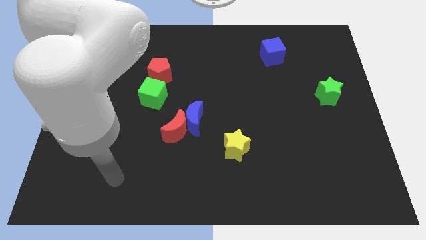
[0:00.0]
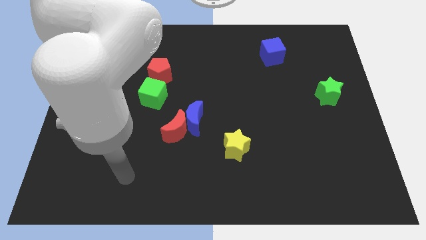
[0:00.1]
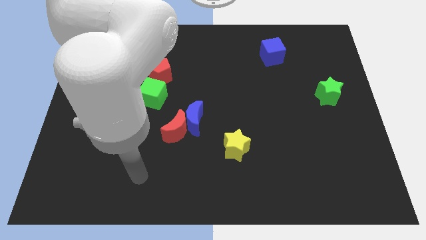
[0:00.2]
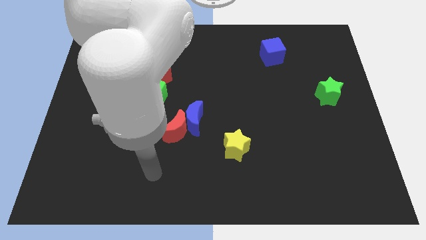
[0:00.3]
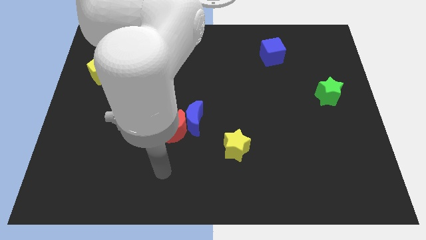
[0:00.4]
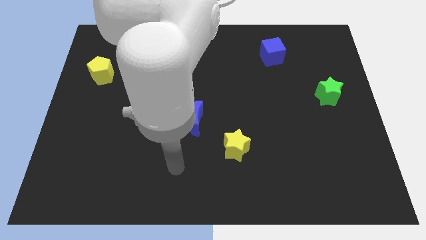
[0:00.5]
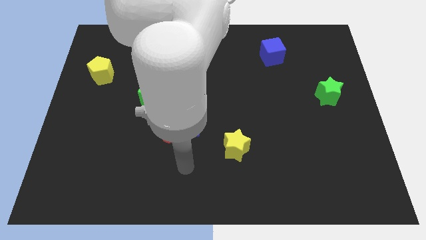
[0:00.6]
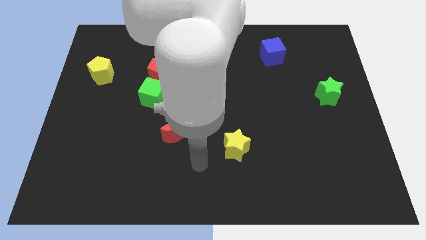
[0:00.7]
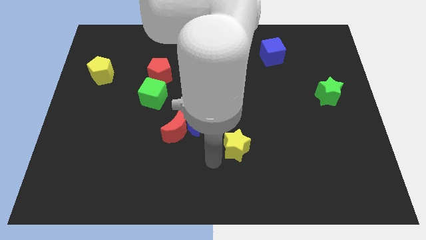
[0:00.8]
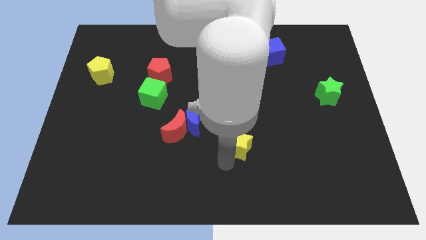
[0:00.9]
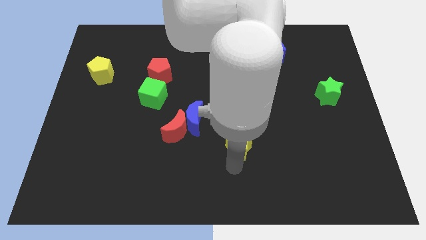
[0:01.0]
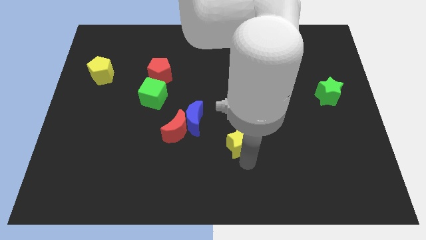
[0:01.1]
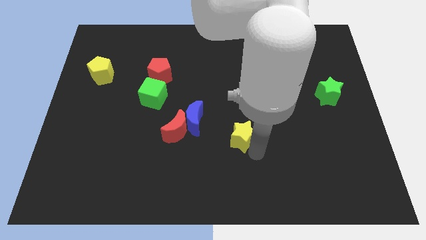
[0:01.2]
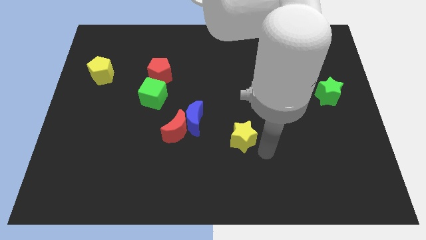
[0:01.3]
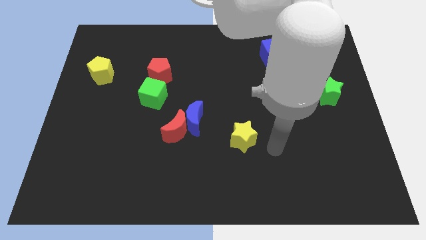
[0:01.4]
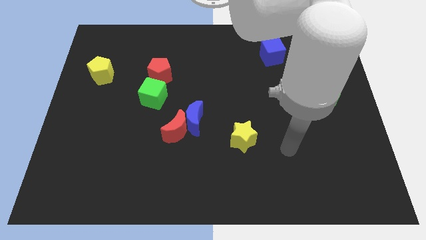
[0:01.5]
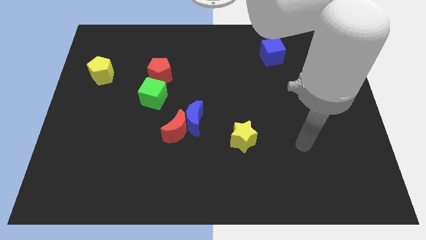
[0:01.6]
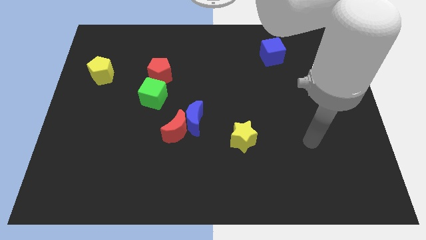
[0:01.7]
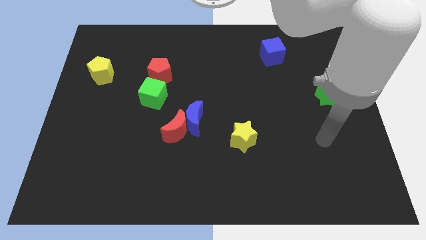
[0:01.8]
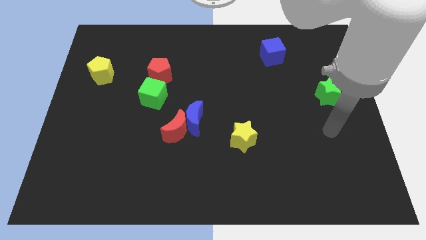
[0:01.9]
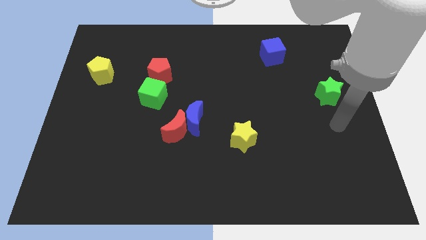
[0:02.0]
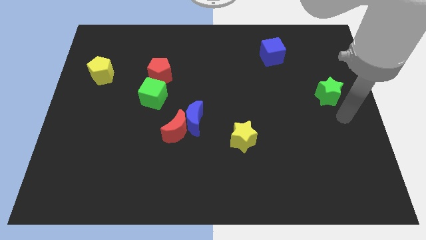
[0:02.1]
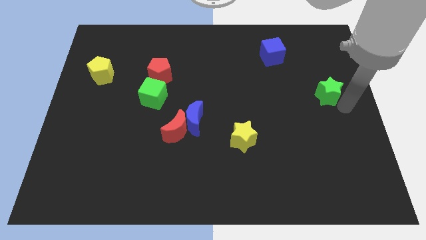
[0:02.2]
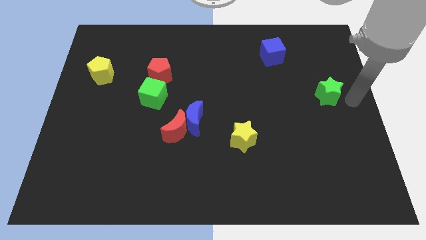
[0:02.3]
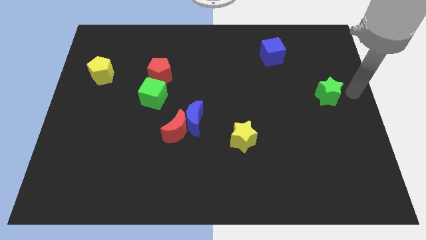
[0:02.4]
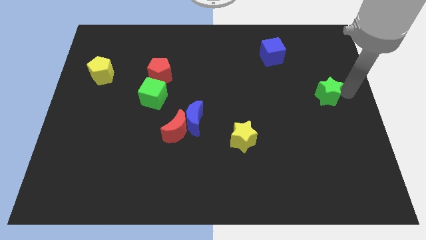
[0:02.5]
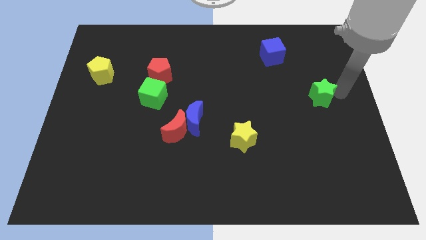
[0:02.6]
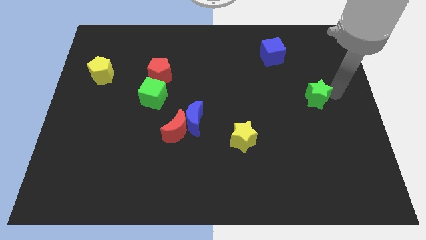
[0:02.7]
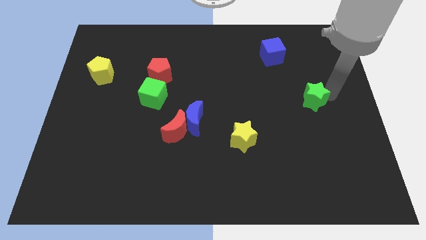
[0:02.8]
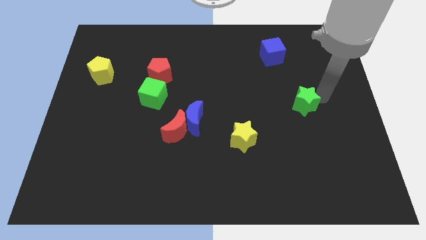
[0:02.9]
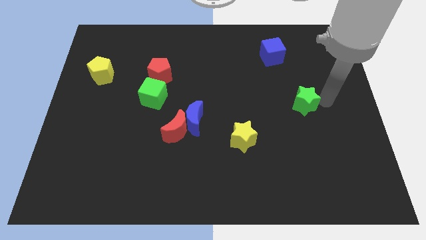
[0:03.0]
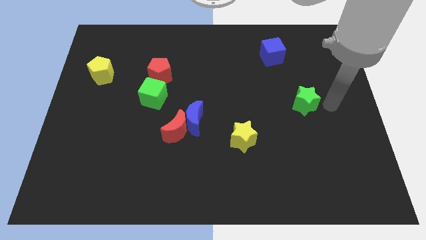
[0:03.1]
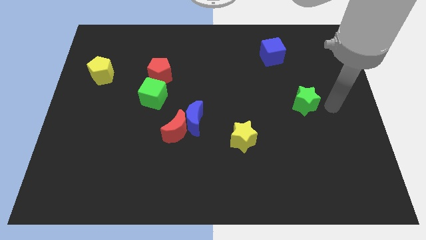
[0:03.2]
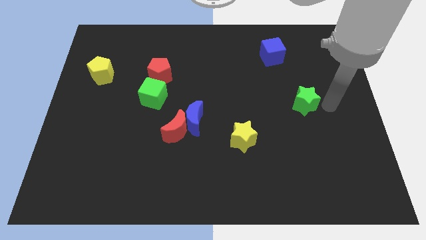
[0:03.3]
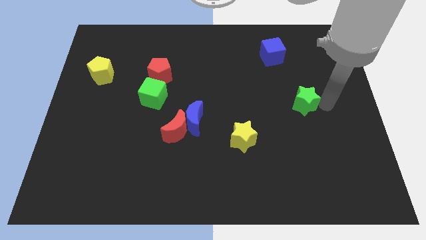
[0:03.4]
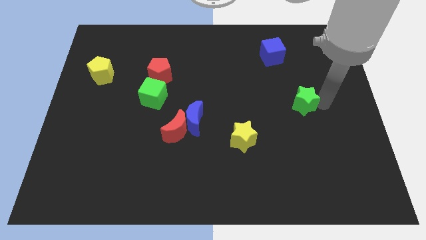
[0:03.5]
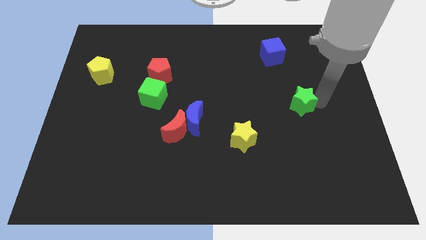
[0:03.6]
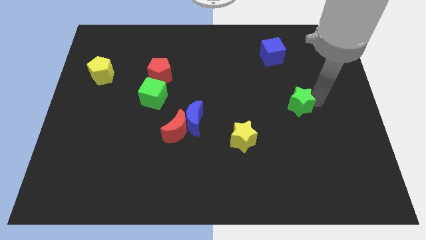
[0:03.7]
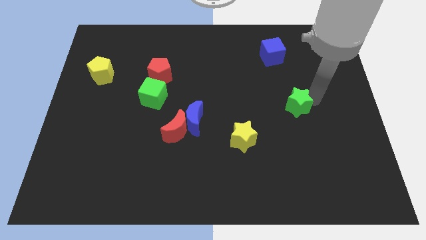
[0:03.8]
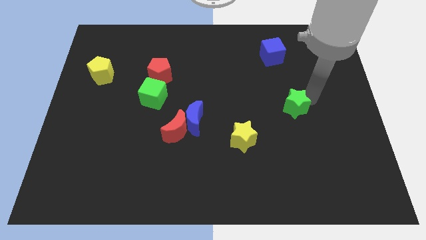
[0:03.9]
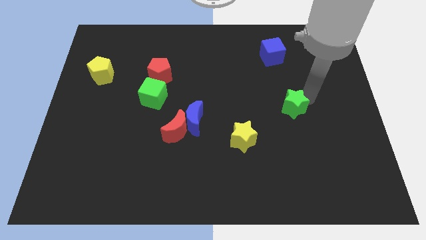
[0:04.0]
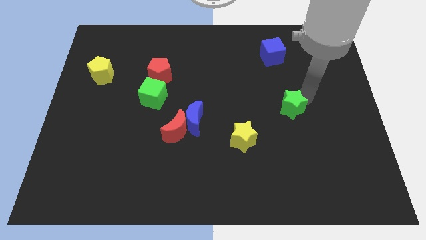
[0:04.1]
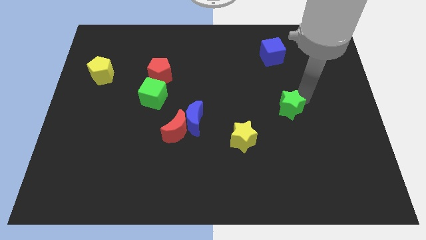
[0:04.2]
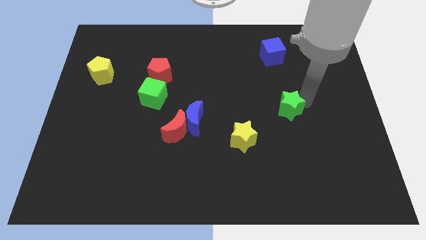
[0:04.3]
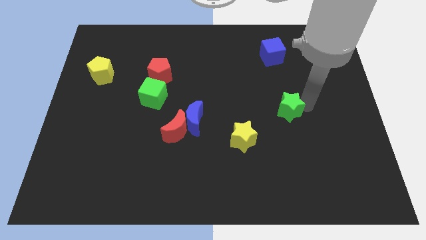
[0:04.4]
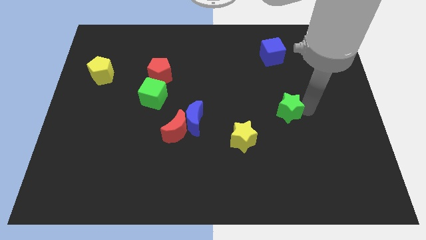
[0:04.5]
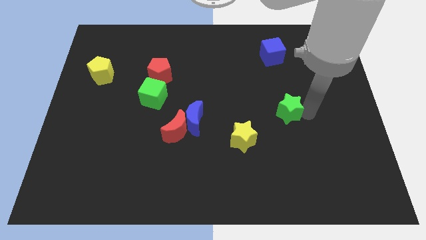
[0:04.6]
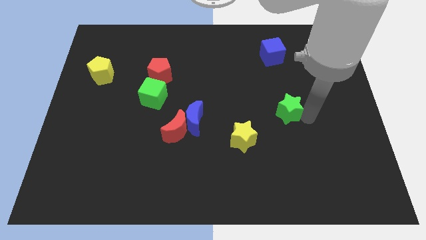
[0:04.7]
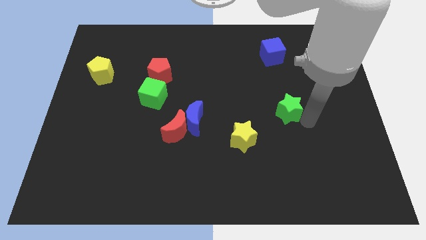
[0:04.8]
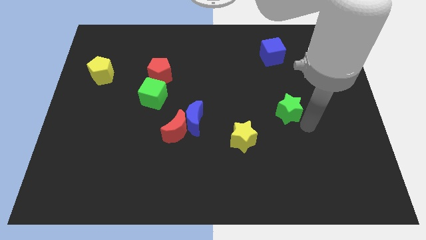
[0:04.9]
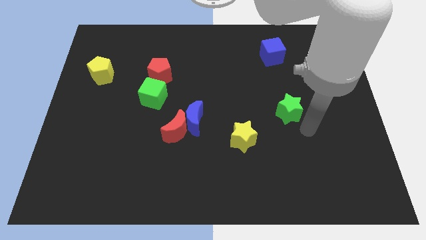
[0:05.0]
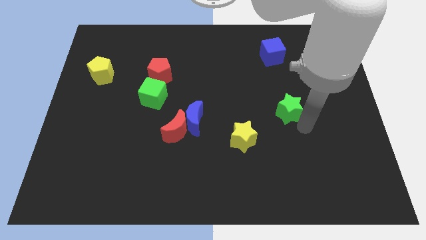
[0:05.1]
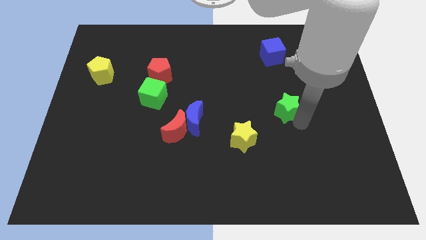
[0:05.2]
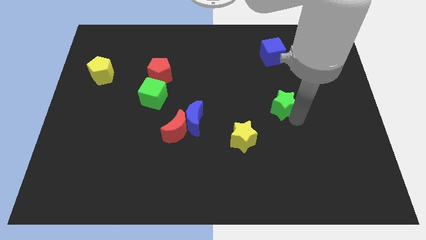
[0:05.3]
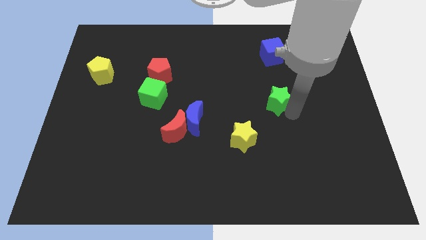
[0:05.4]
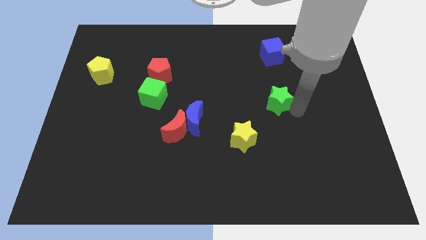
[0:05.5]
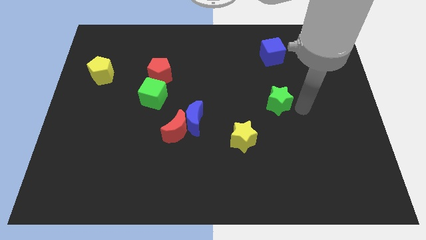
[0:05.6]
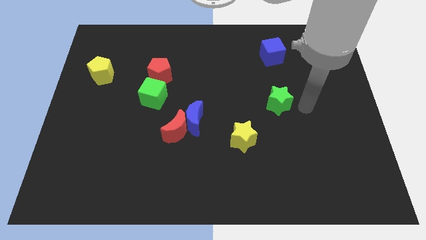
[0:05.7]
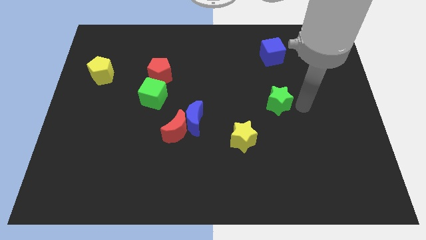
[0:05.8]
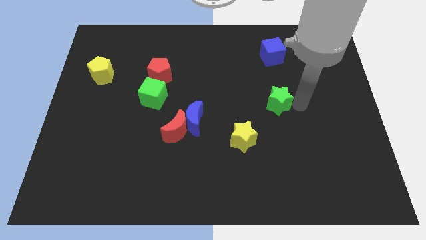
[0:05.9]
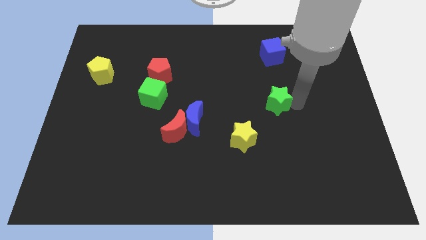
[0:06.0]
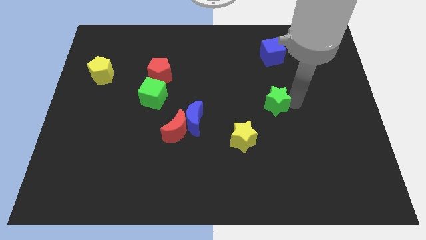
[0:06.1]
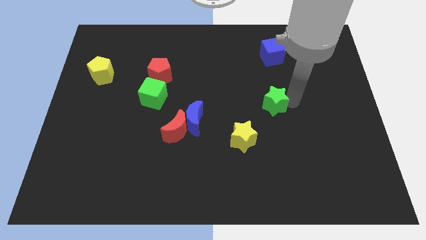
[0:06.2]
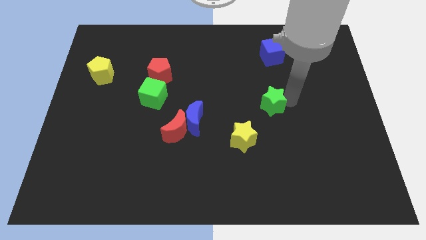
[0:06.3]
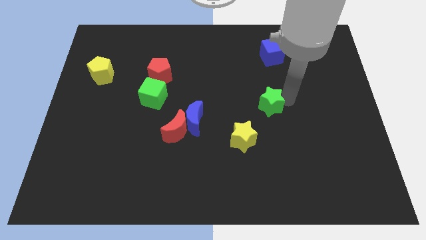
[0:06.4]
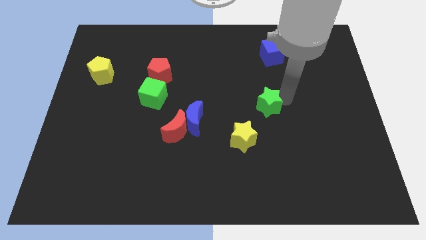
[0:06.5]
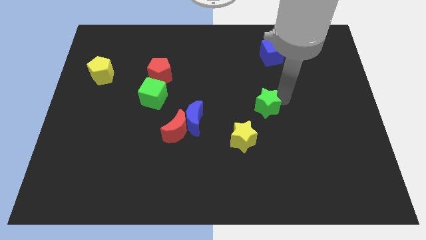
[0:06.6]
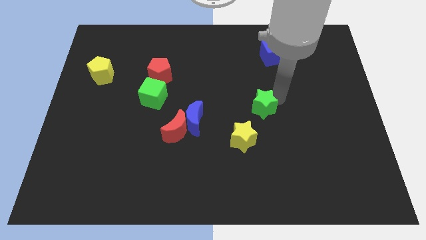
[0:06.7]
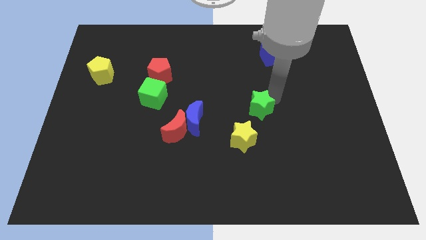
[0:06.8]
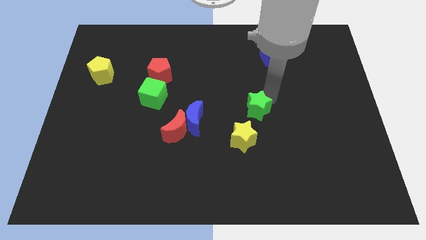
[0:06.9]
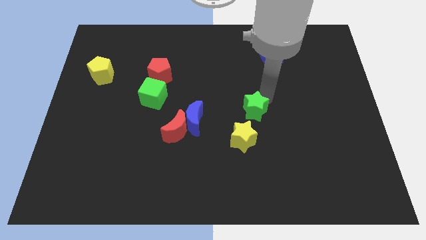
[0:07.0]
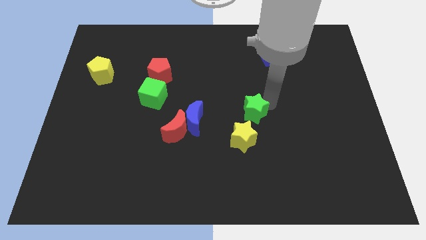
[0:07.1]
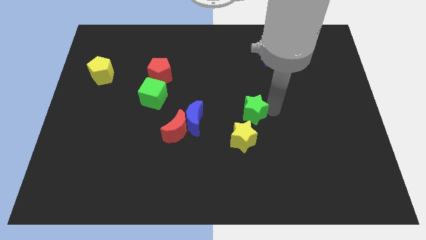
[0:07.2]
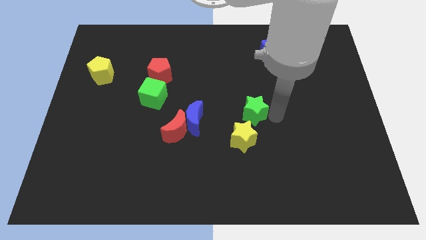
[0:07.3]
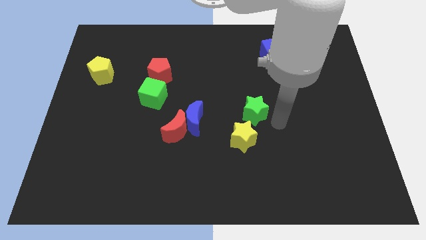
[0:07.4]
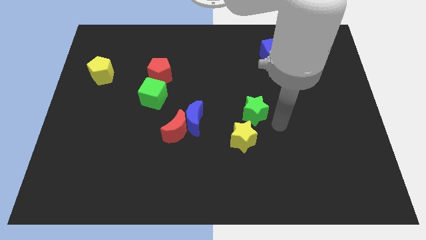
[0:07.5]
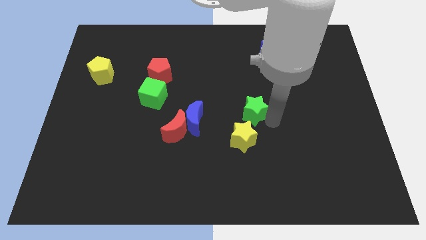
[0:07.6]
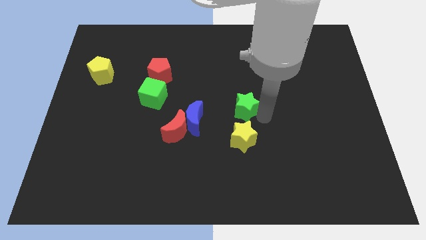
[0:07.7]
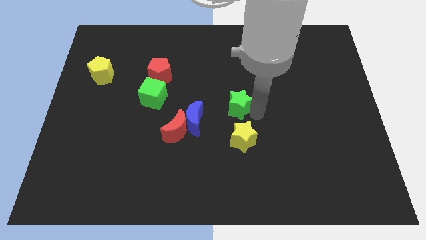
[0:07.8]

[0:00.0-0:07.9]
slide the green star left
